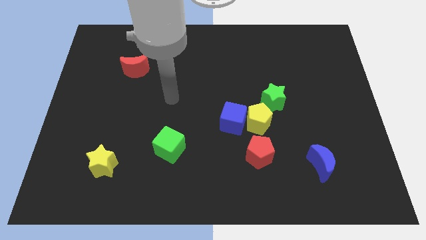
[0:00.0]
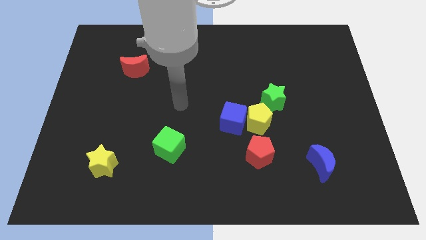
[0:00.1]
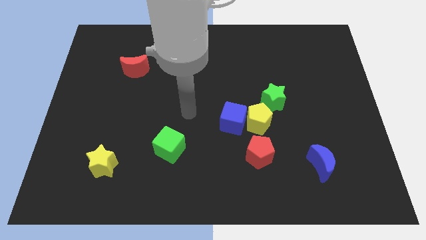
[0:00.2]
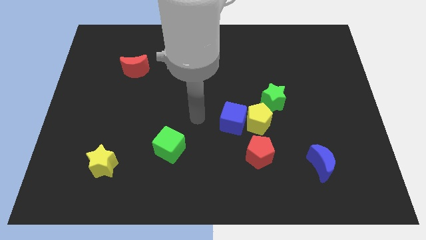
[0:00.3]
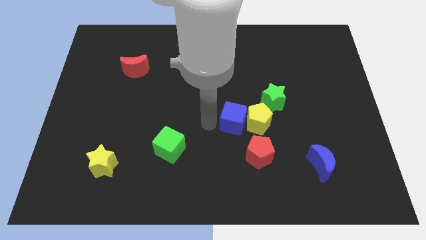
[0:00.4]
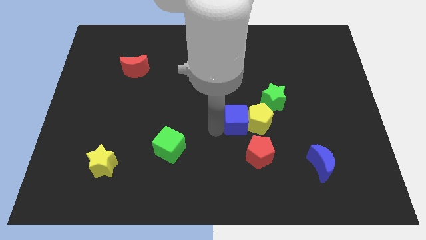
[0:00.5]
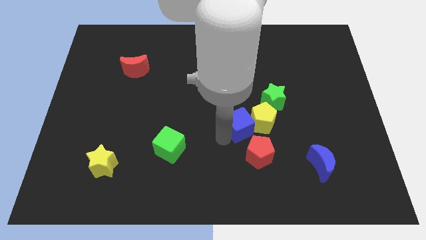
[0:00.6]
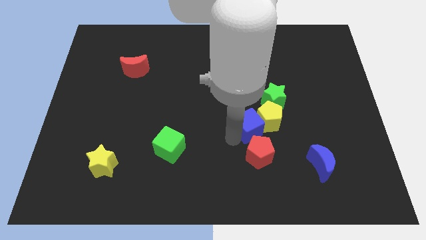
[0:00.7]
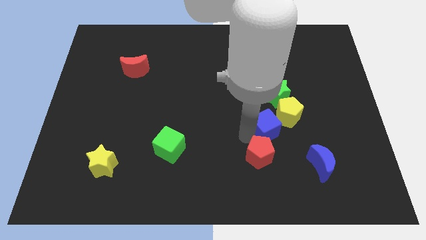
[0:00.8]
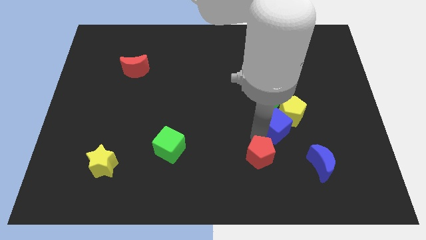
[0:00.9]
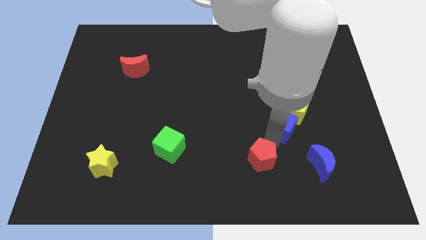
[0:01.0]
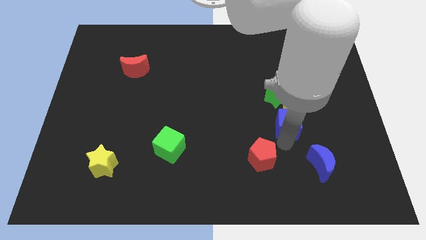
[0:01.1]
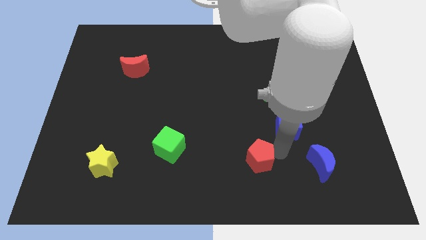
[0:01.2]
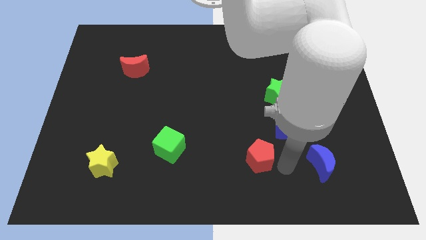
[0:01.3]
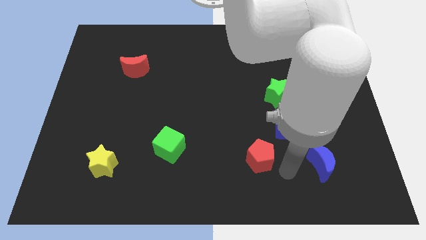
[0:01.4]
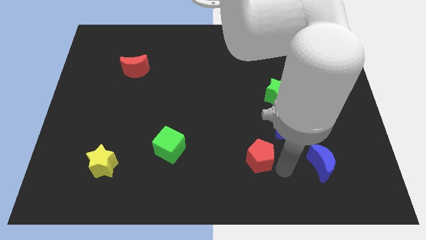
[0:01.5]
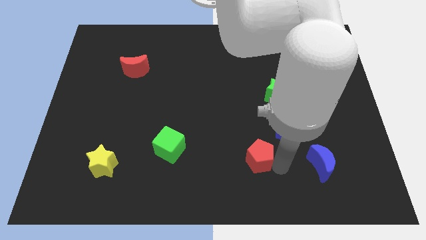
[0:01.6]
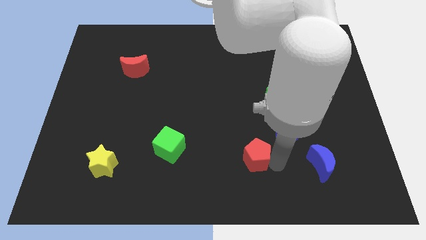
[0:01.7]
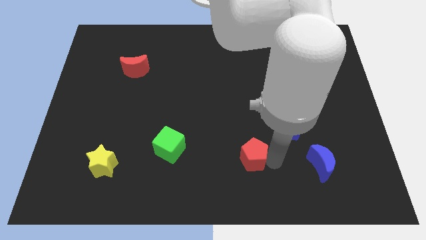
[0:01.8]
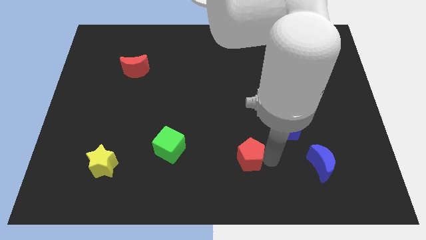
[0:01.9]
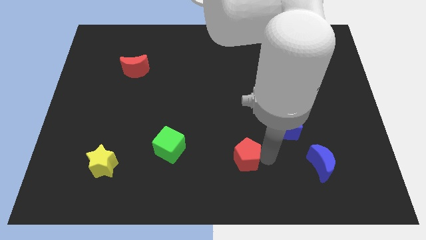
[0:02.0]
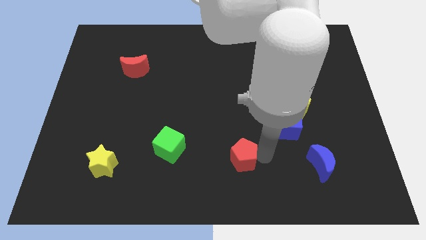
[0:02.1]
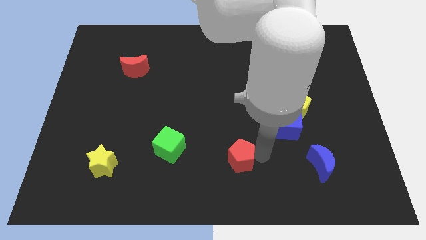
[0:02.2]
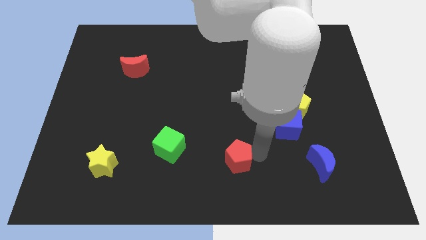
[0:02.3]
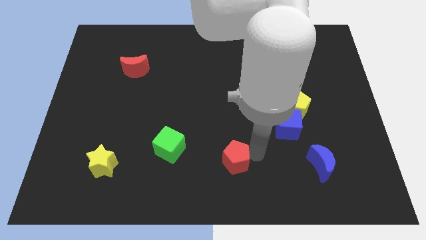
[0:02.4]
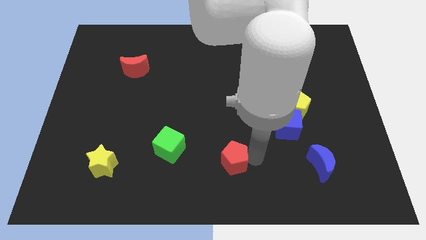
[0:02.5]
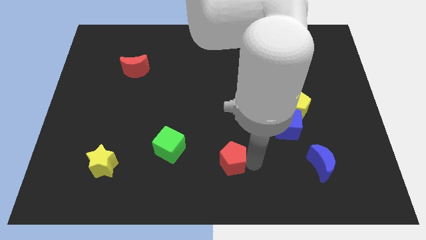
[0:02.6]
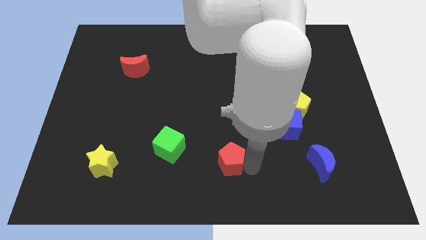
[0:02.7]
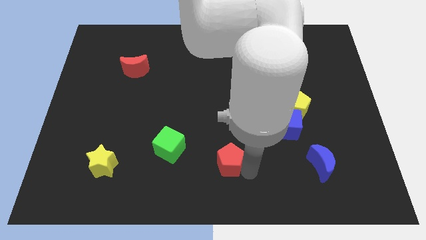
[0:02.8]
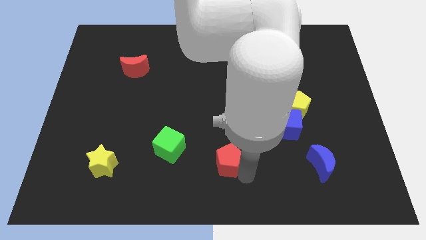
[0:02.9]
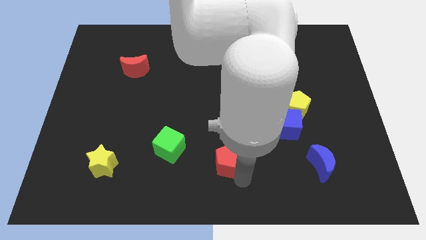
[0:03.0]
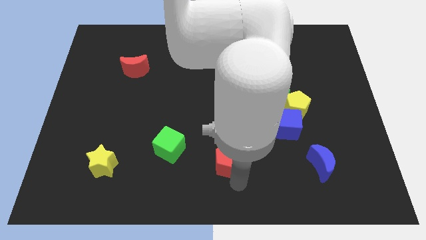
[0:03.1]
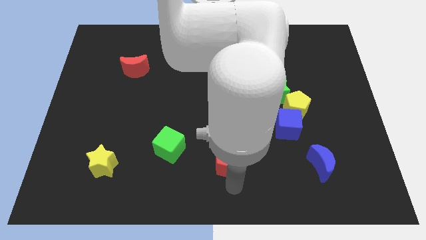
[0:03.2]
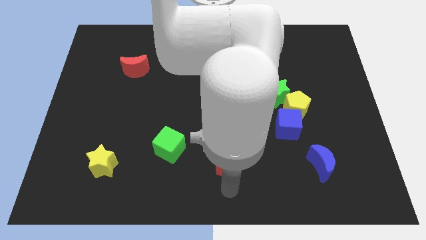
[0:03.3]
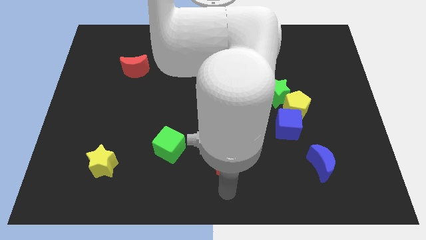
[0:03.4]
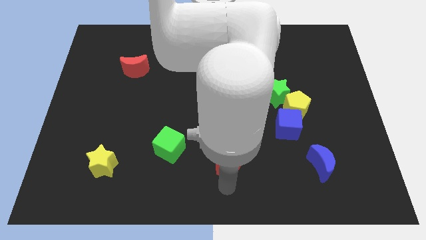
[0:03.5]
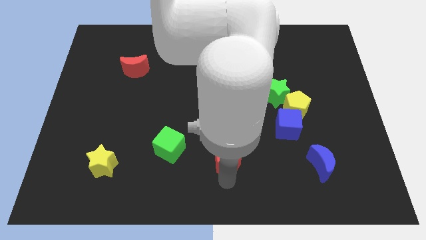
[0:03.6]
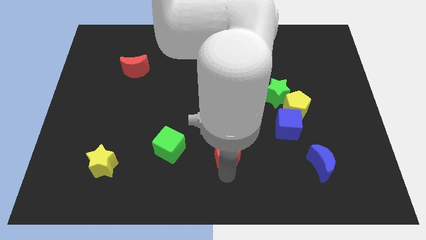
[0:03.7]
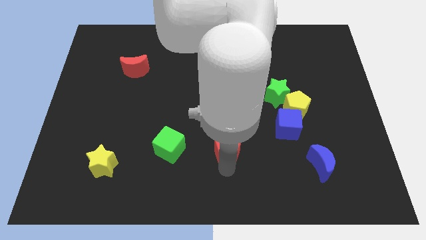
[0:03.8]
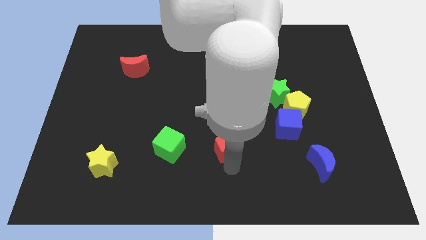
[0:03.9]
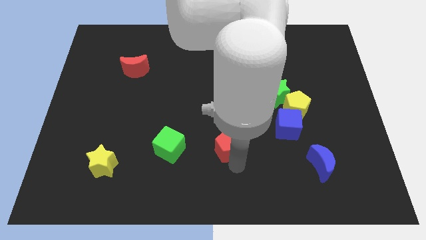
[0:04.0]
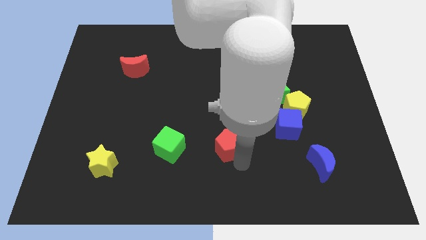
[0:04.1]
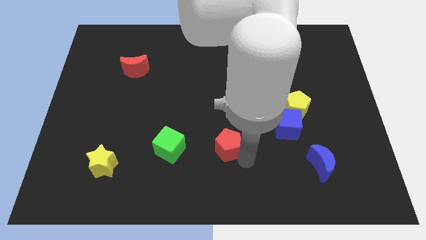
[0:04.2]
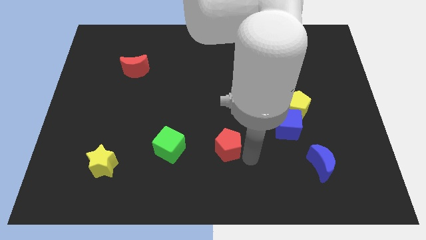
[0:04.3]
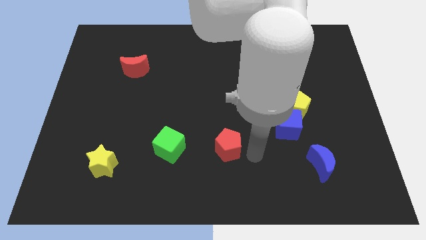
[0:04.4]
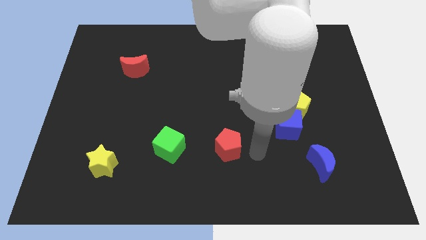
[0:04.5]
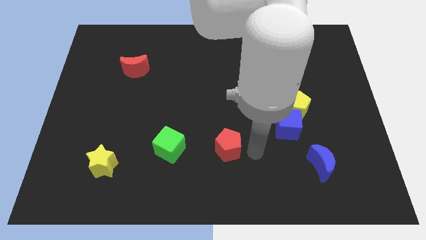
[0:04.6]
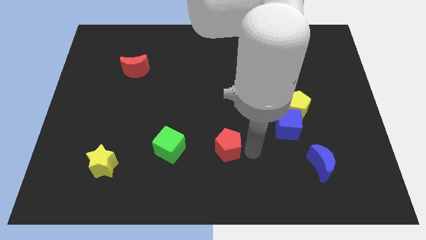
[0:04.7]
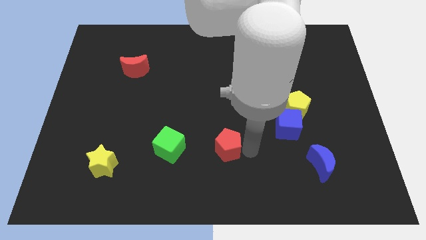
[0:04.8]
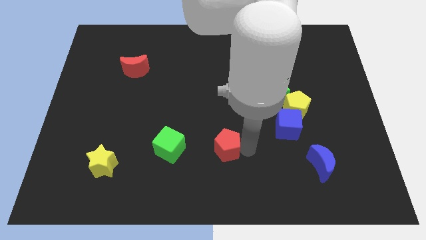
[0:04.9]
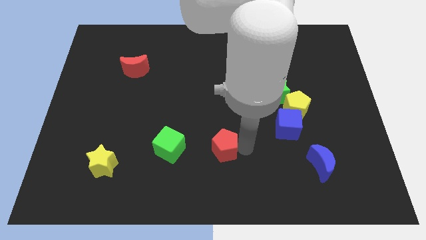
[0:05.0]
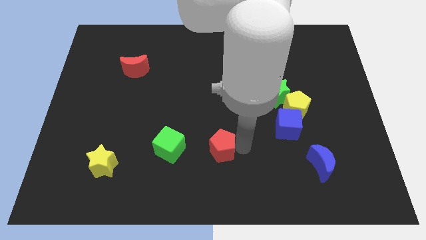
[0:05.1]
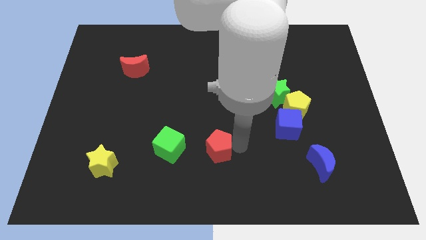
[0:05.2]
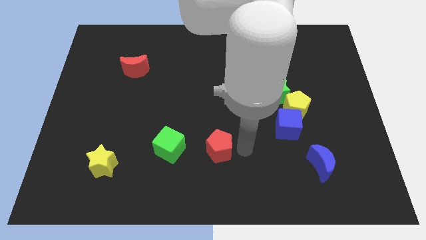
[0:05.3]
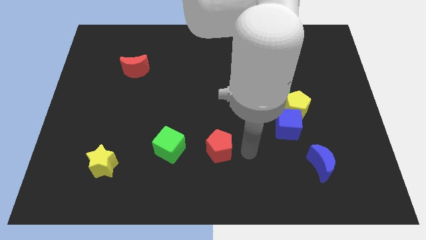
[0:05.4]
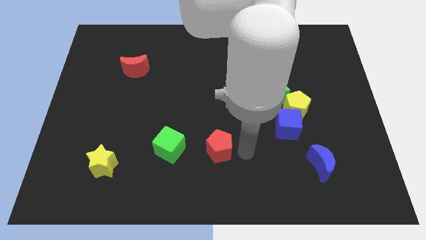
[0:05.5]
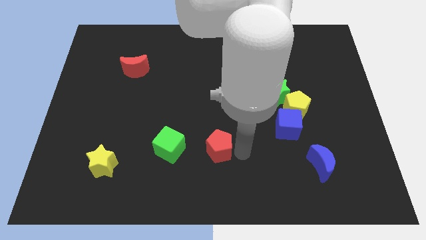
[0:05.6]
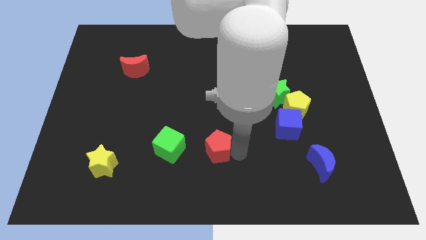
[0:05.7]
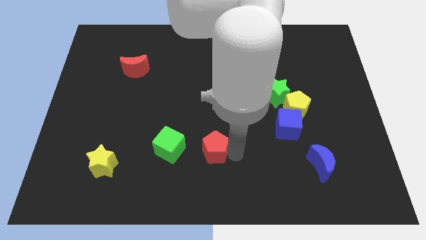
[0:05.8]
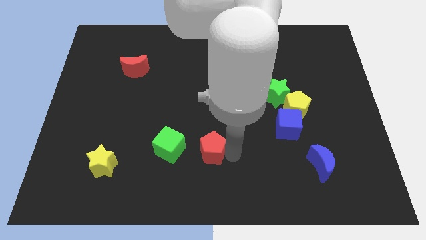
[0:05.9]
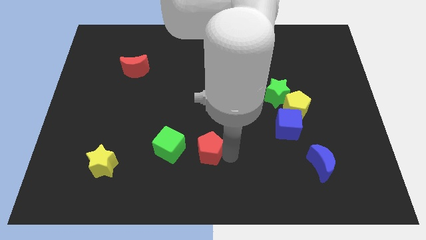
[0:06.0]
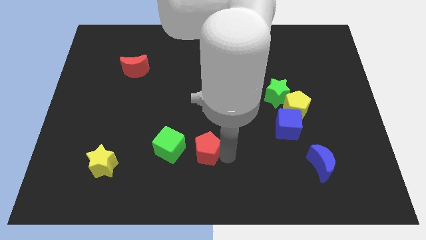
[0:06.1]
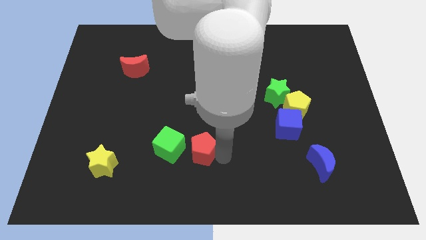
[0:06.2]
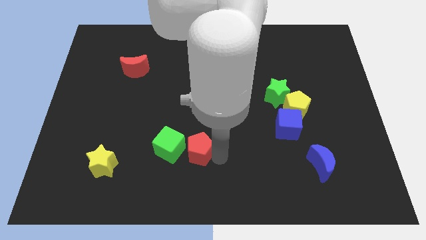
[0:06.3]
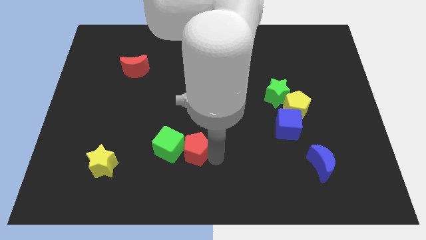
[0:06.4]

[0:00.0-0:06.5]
move the red pentagon to the green cube
